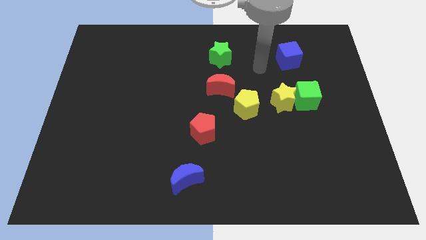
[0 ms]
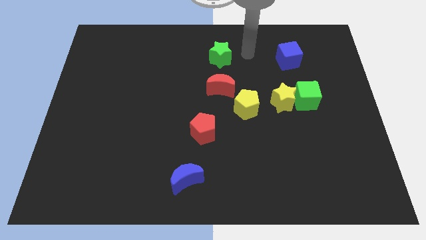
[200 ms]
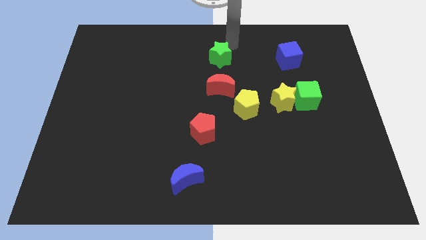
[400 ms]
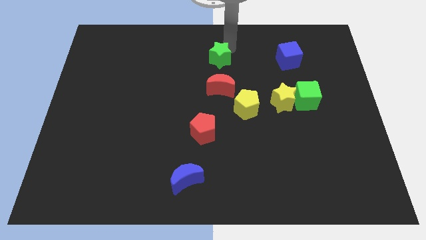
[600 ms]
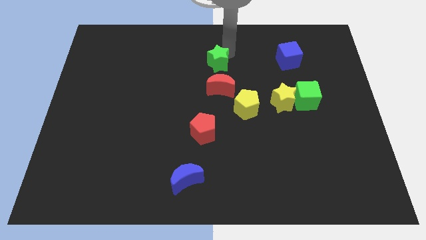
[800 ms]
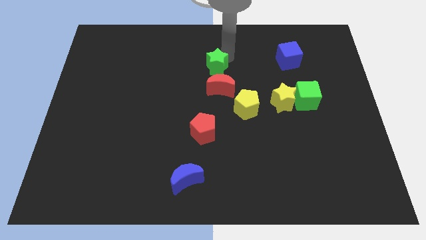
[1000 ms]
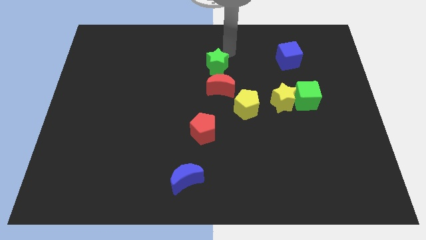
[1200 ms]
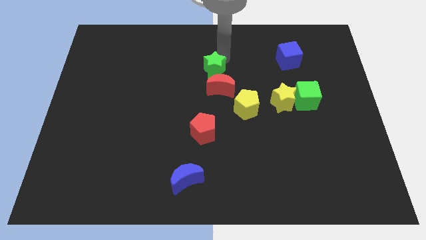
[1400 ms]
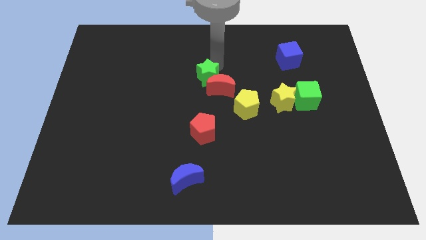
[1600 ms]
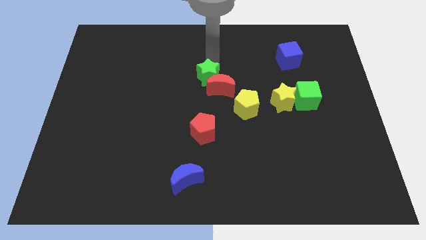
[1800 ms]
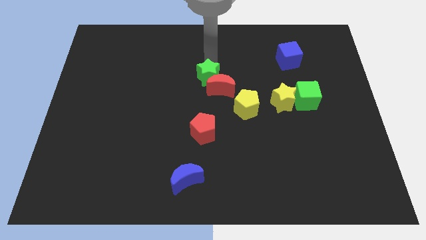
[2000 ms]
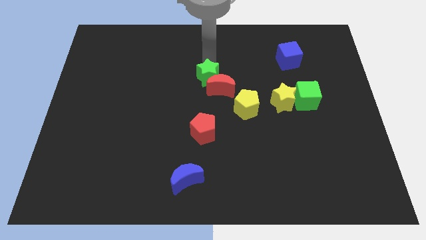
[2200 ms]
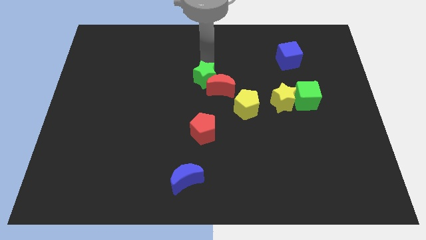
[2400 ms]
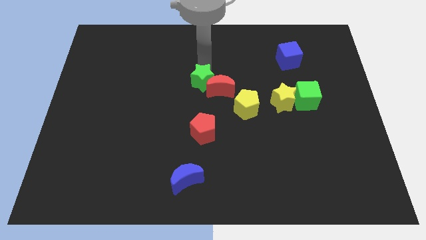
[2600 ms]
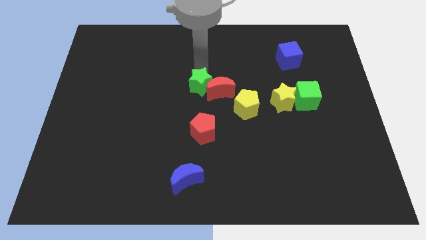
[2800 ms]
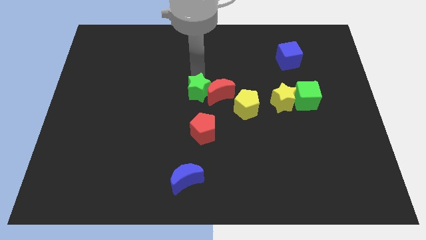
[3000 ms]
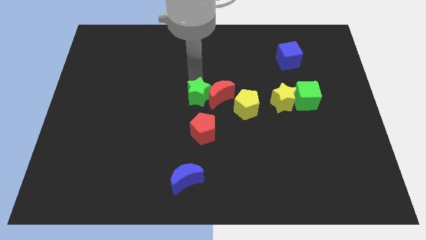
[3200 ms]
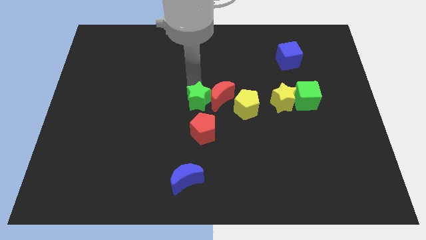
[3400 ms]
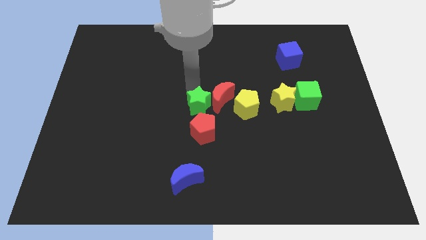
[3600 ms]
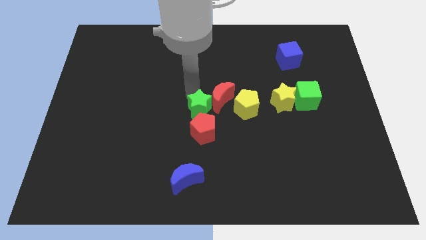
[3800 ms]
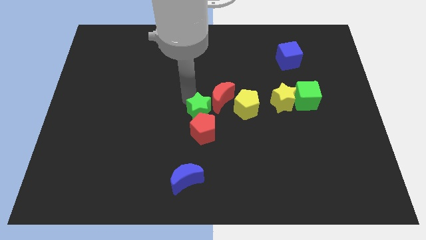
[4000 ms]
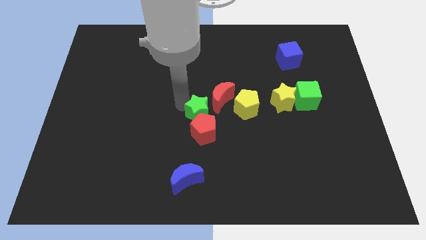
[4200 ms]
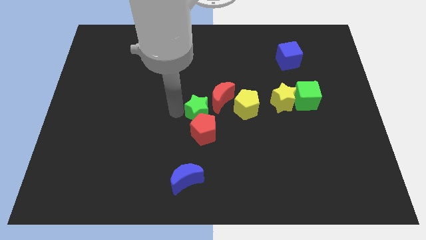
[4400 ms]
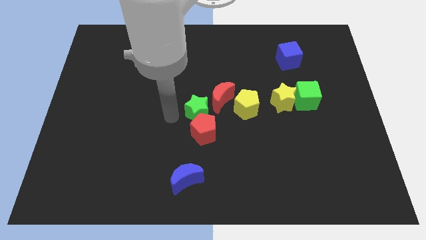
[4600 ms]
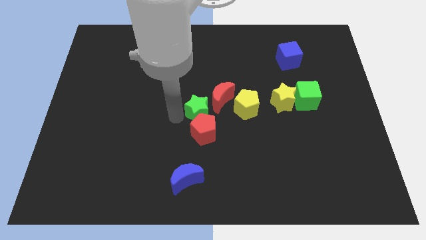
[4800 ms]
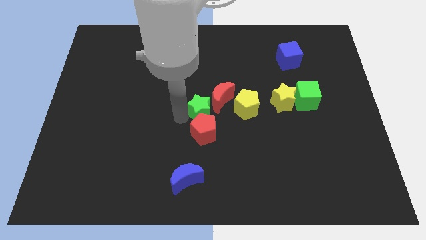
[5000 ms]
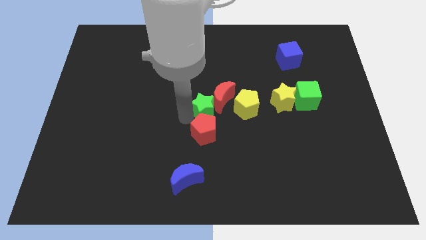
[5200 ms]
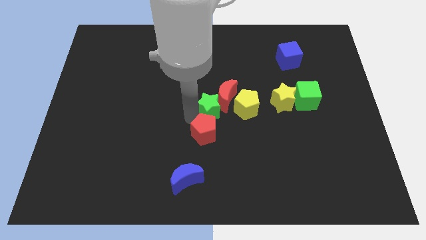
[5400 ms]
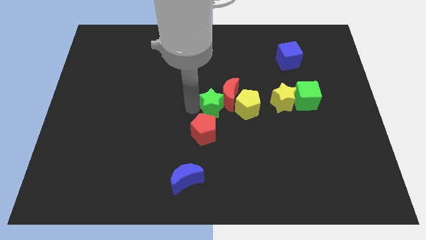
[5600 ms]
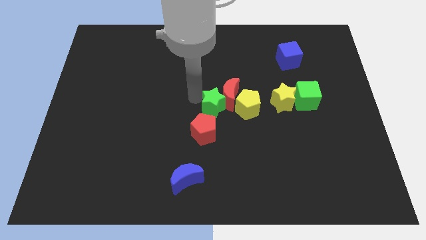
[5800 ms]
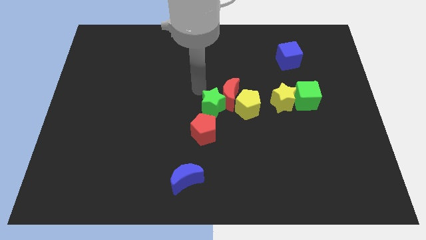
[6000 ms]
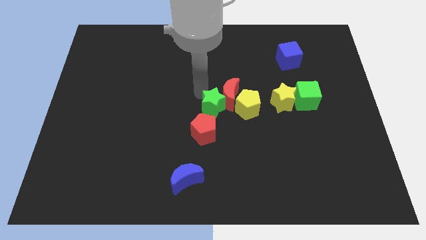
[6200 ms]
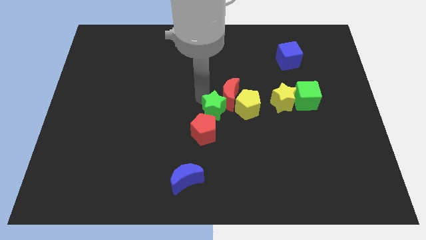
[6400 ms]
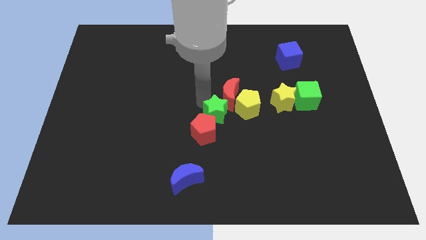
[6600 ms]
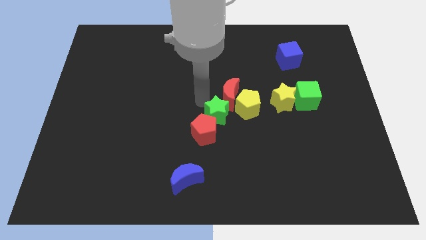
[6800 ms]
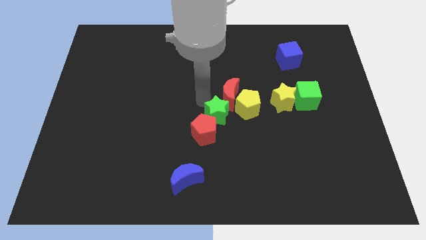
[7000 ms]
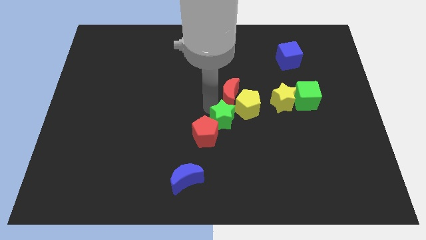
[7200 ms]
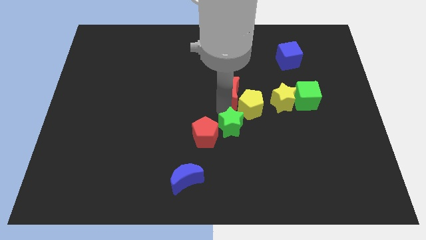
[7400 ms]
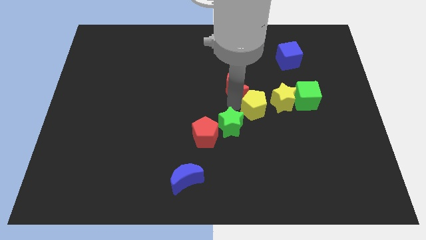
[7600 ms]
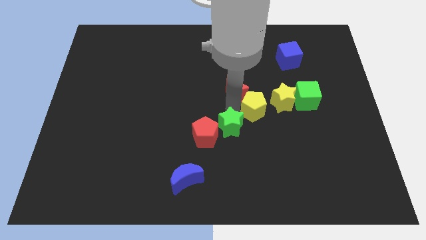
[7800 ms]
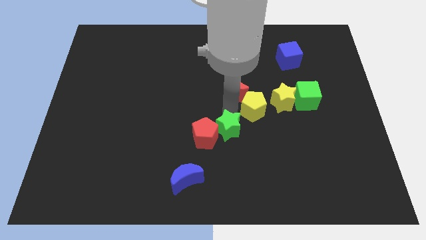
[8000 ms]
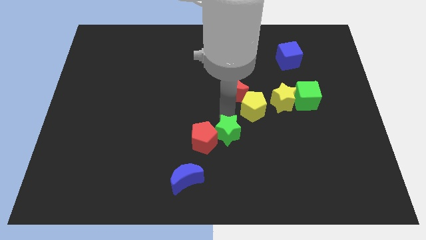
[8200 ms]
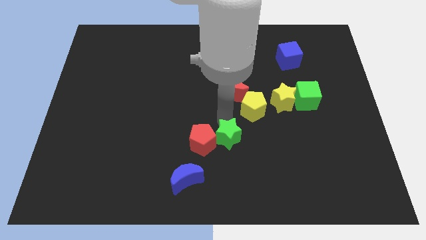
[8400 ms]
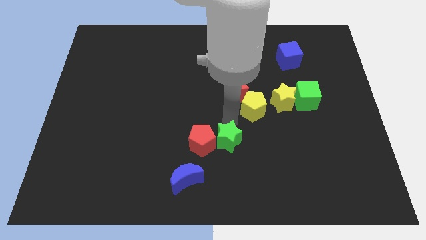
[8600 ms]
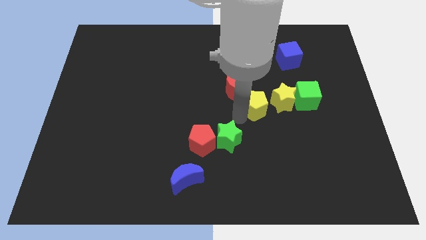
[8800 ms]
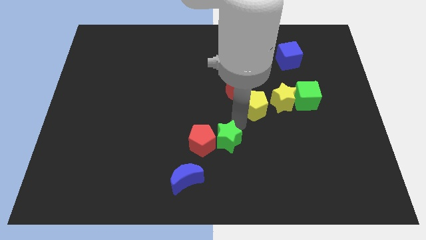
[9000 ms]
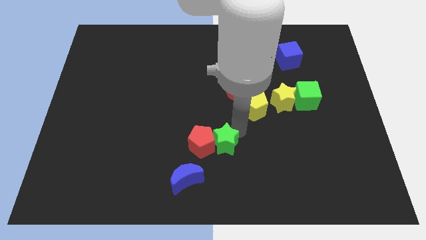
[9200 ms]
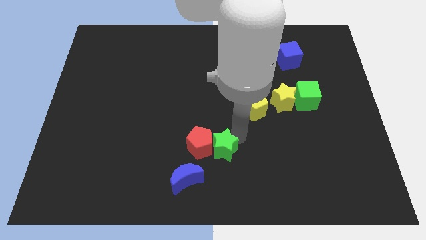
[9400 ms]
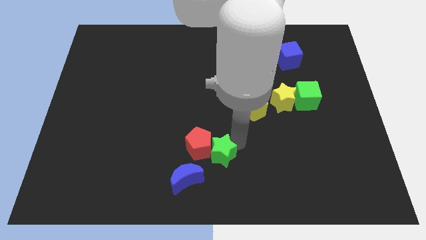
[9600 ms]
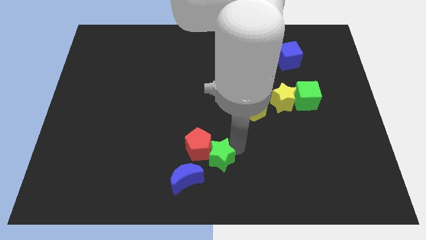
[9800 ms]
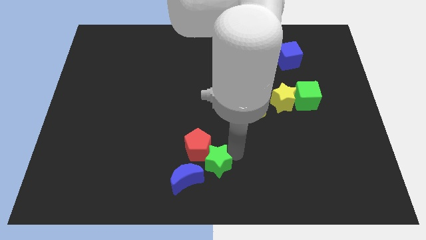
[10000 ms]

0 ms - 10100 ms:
move the green star below the red pentagon

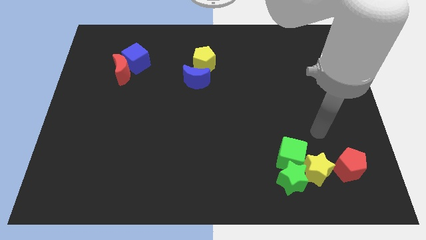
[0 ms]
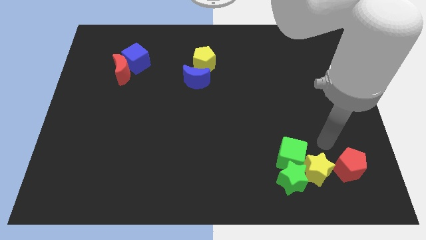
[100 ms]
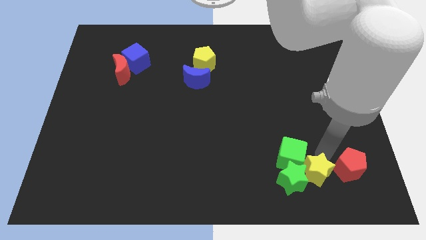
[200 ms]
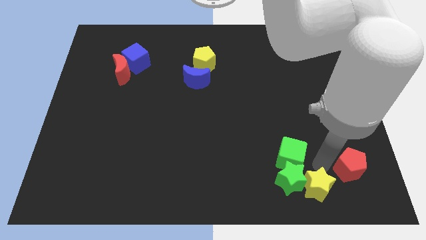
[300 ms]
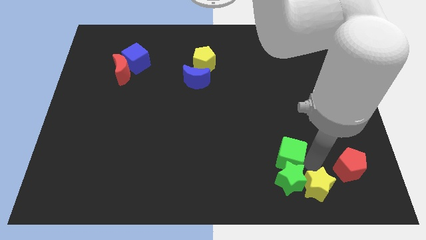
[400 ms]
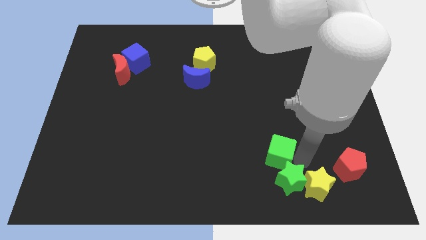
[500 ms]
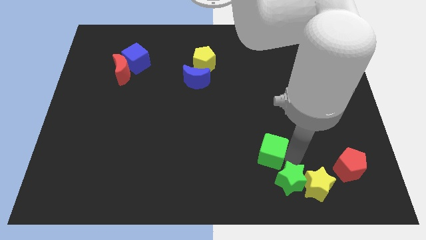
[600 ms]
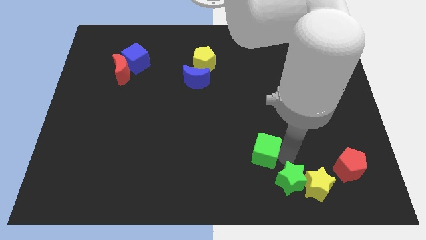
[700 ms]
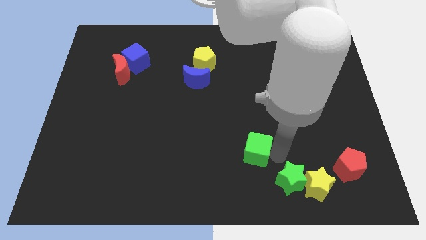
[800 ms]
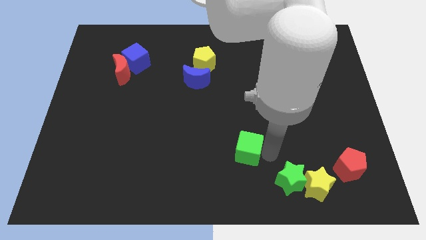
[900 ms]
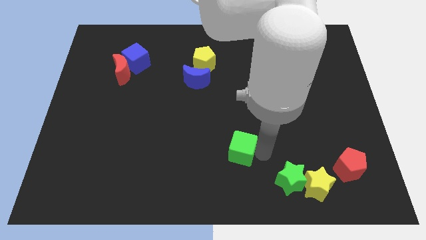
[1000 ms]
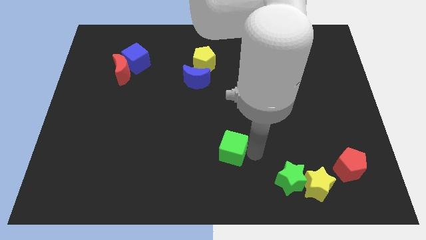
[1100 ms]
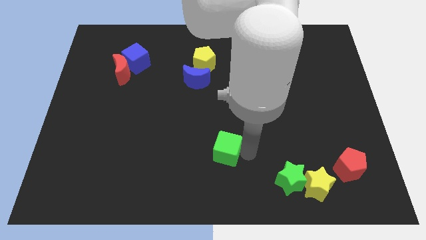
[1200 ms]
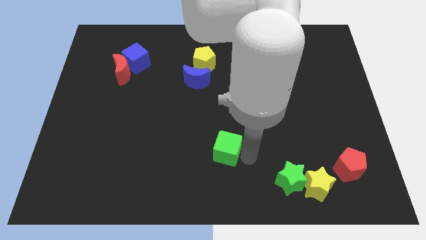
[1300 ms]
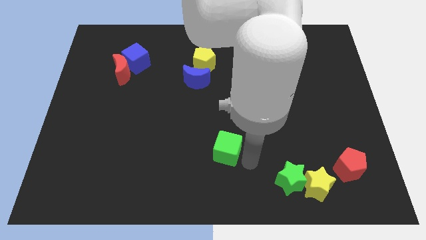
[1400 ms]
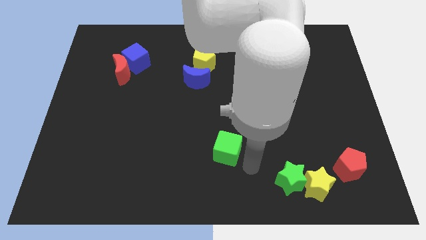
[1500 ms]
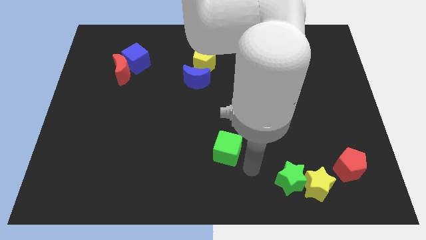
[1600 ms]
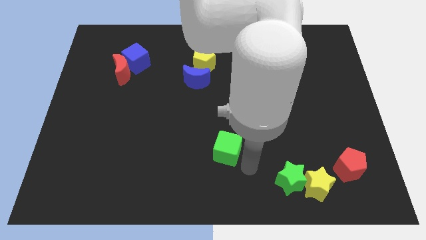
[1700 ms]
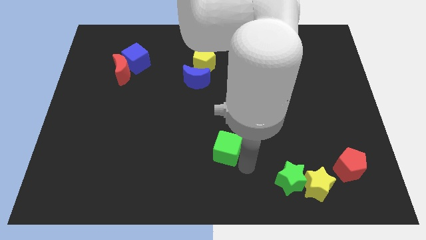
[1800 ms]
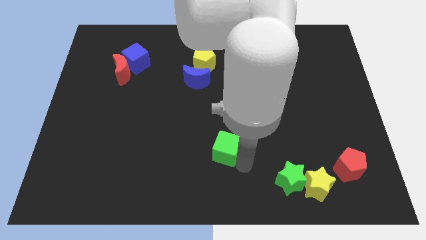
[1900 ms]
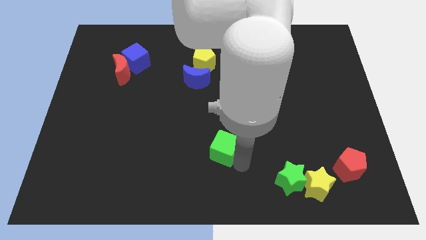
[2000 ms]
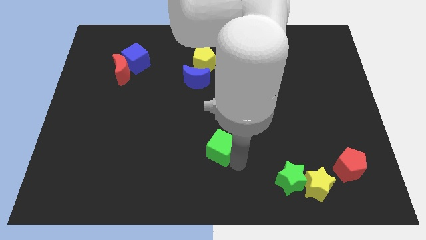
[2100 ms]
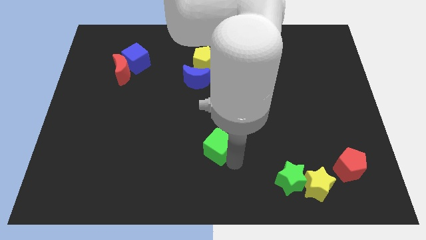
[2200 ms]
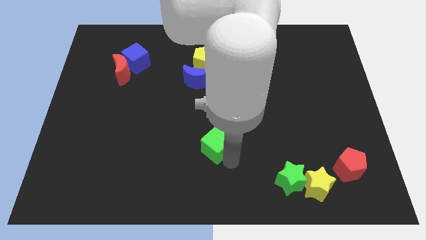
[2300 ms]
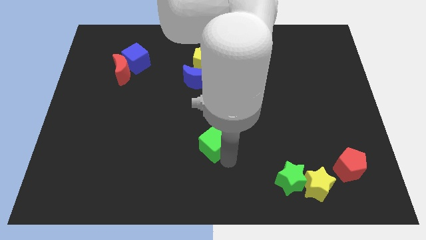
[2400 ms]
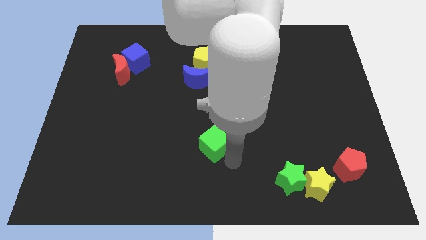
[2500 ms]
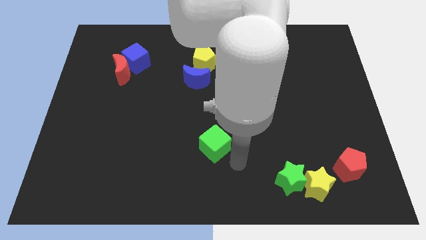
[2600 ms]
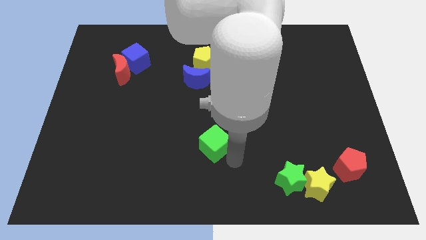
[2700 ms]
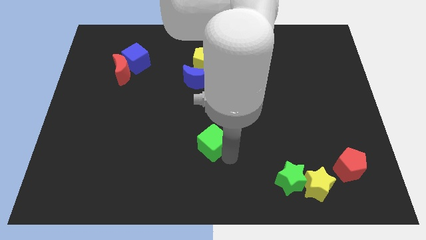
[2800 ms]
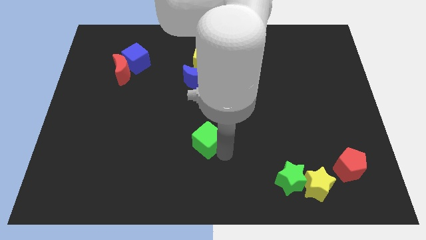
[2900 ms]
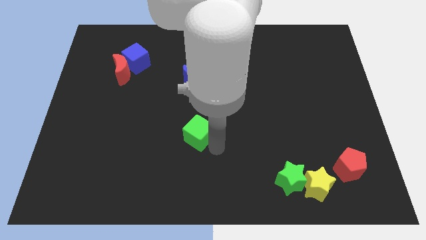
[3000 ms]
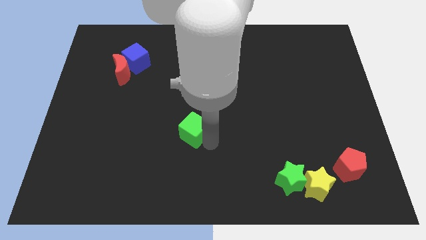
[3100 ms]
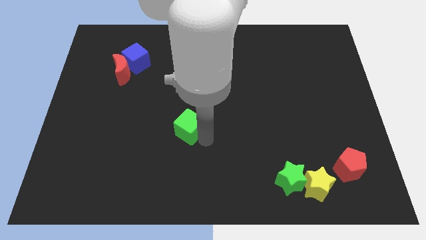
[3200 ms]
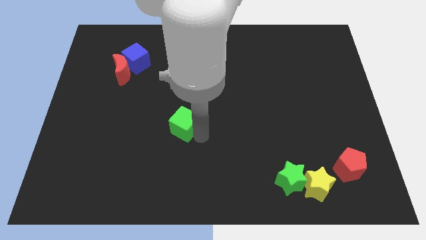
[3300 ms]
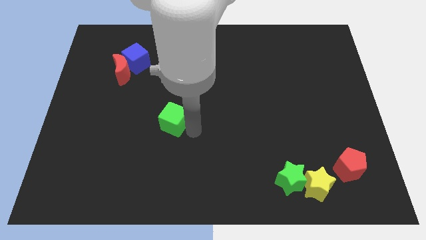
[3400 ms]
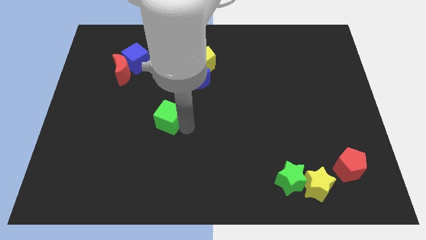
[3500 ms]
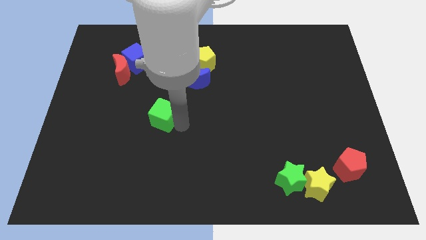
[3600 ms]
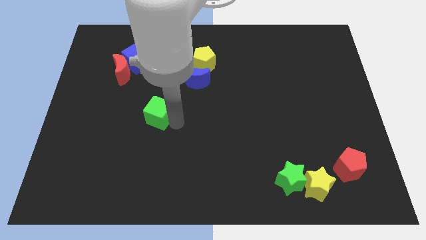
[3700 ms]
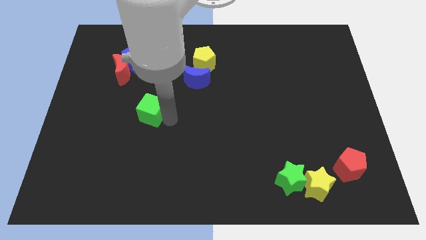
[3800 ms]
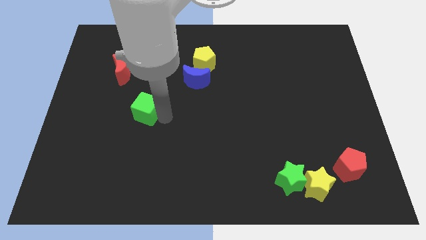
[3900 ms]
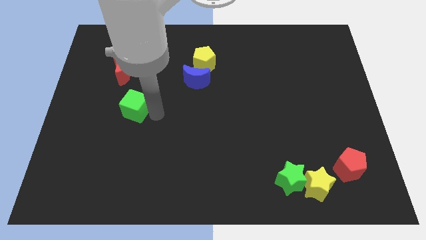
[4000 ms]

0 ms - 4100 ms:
move the green cube to the bottom of the red moon
